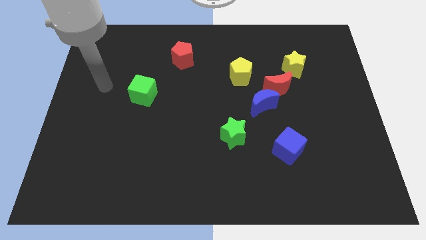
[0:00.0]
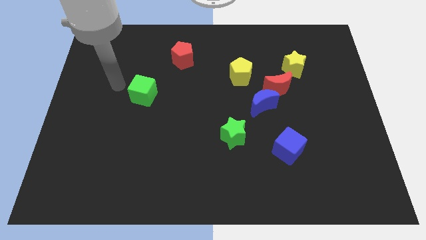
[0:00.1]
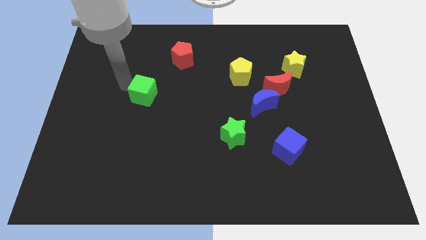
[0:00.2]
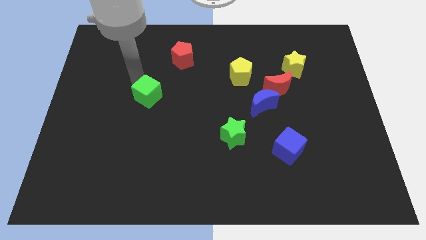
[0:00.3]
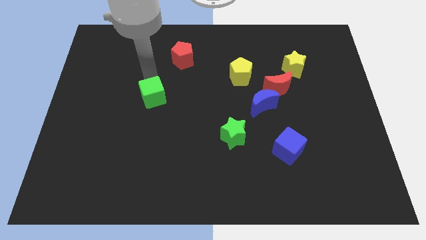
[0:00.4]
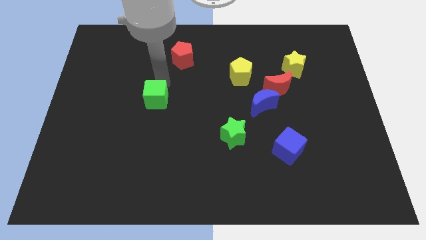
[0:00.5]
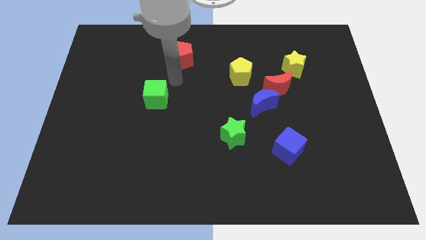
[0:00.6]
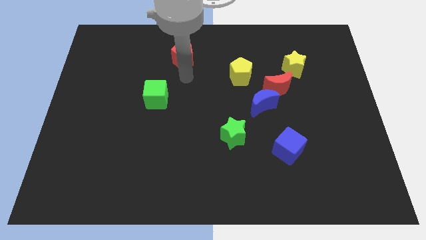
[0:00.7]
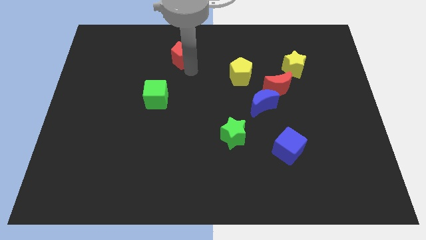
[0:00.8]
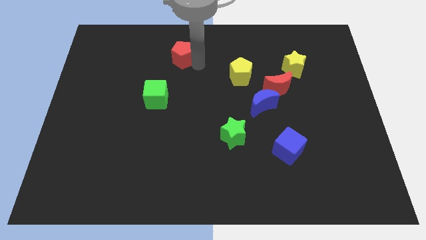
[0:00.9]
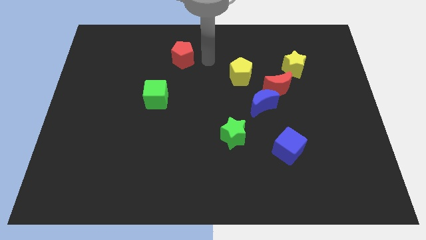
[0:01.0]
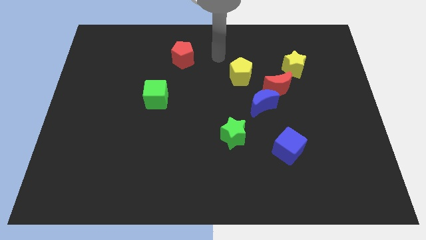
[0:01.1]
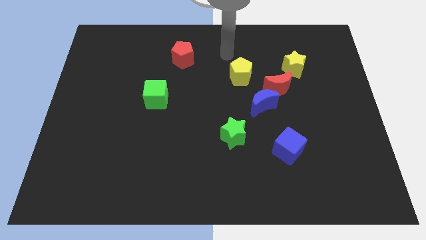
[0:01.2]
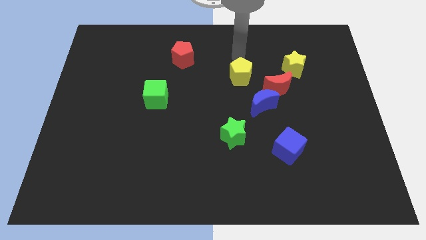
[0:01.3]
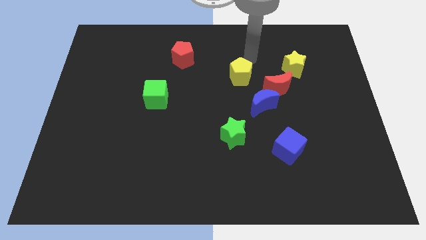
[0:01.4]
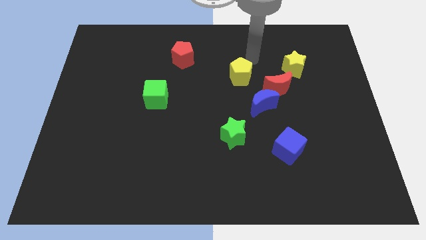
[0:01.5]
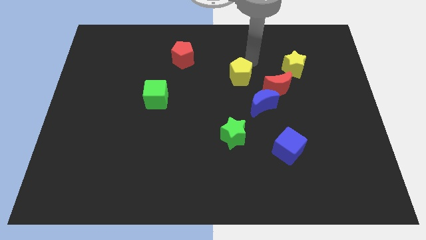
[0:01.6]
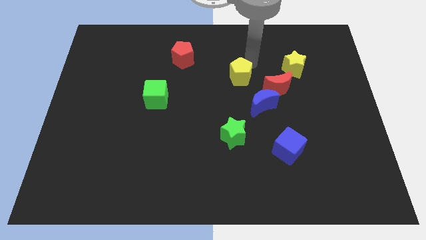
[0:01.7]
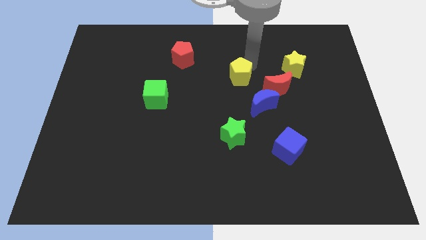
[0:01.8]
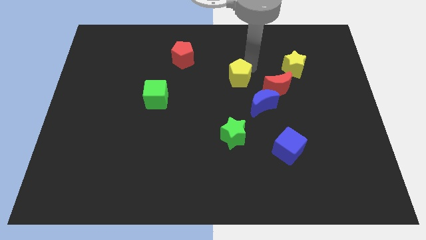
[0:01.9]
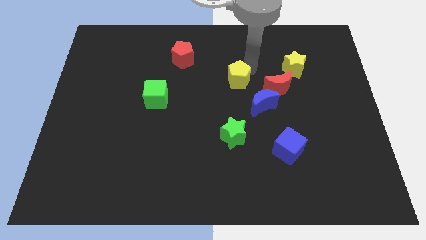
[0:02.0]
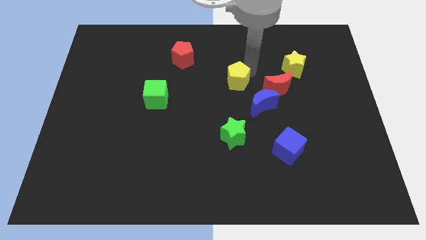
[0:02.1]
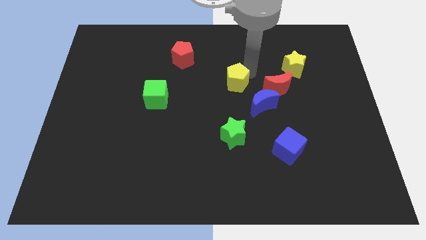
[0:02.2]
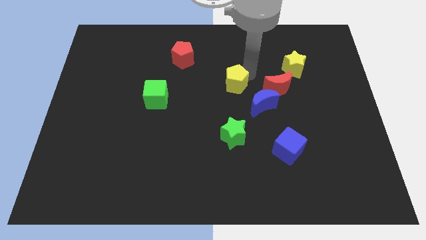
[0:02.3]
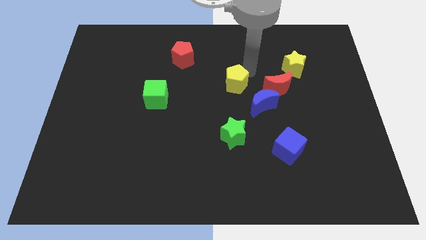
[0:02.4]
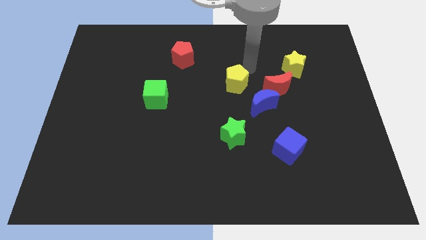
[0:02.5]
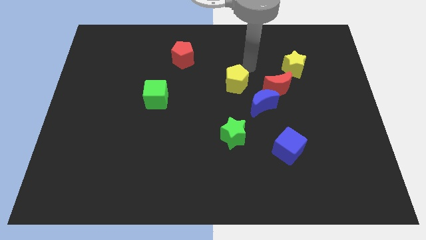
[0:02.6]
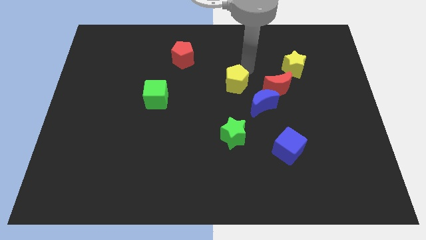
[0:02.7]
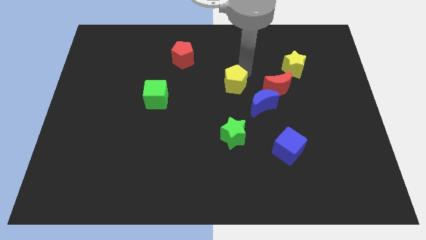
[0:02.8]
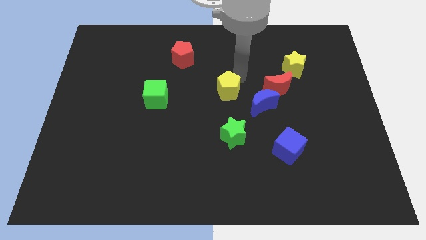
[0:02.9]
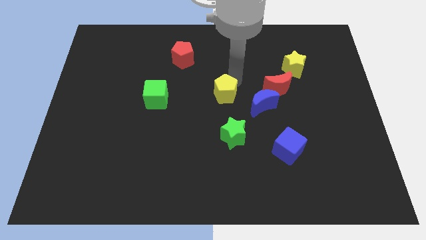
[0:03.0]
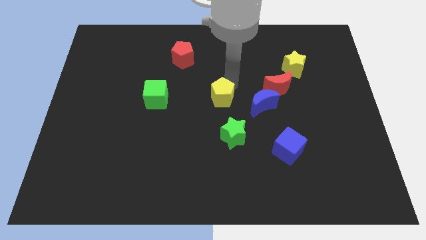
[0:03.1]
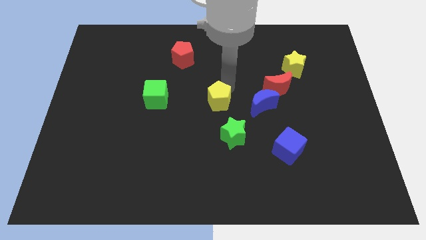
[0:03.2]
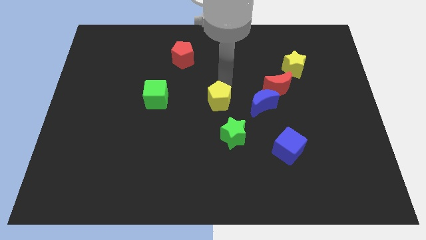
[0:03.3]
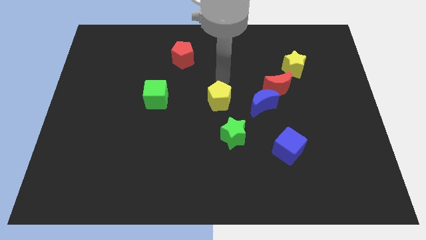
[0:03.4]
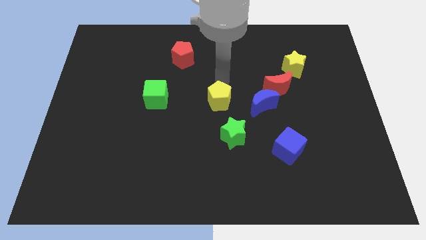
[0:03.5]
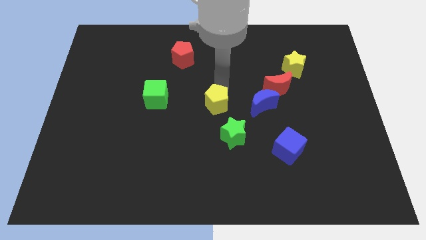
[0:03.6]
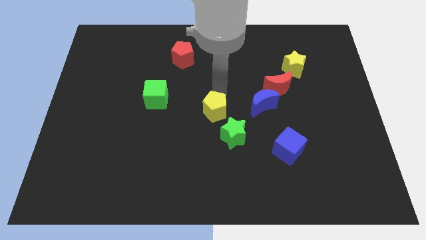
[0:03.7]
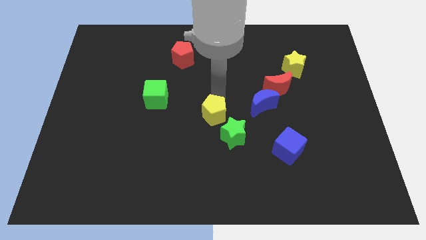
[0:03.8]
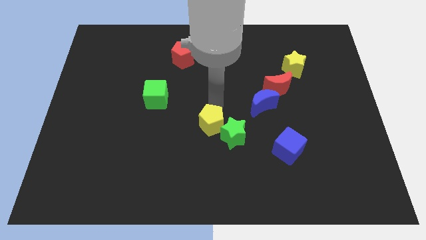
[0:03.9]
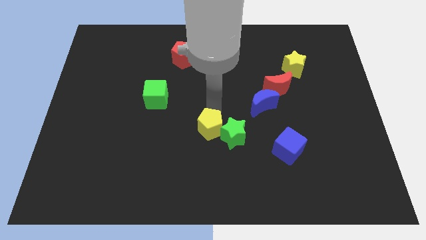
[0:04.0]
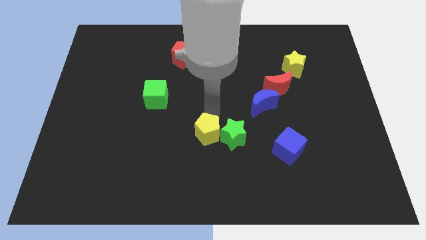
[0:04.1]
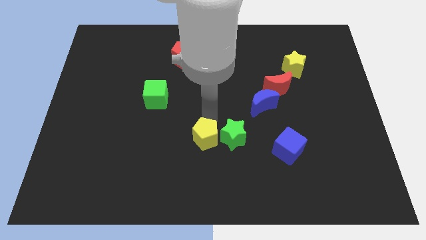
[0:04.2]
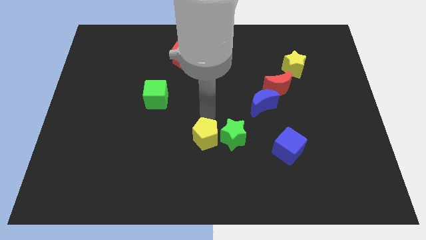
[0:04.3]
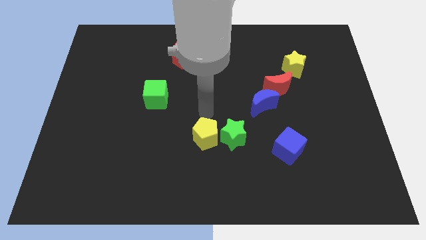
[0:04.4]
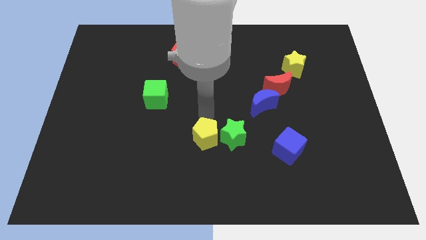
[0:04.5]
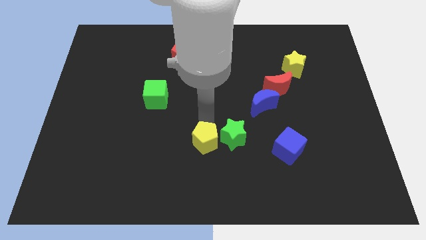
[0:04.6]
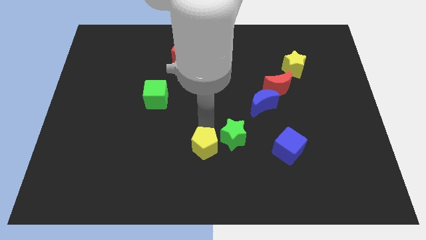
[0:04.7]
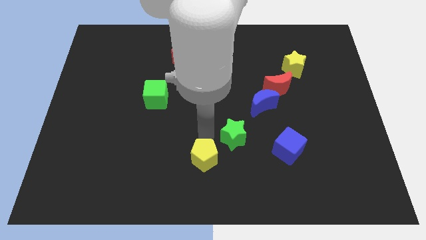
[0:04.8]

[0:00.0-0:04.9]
push the yellow pentagon to the bottom

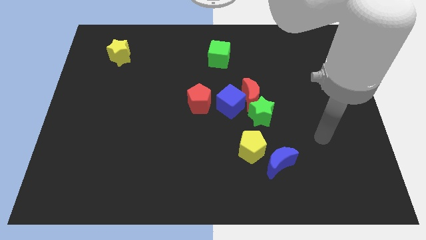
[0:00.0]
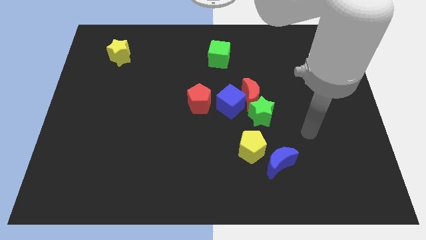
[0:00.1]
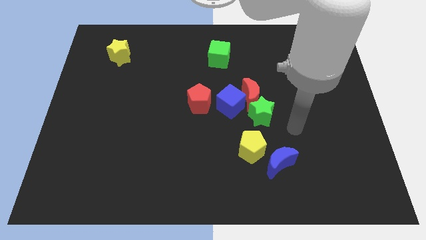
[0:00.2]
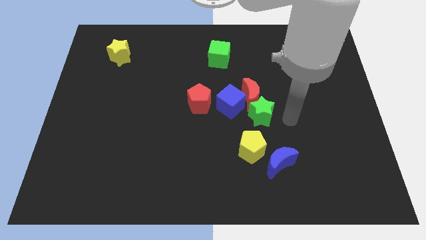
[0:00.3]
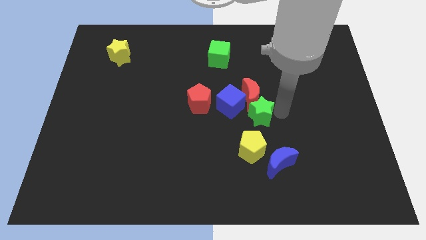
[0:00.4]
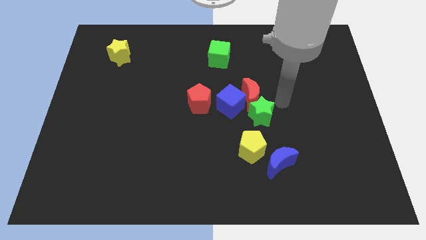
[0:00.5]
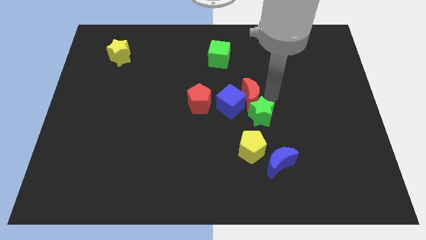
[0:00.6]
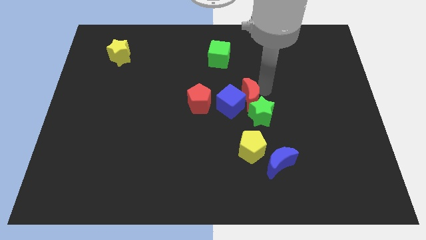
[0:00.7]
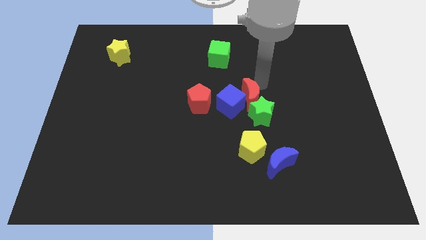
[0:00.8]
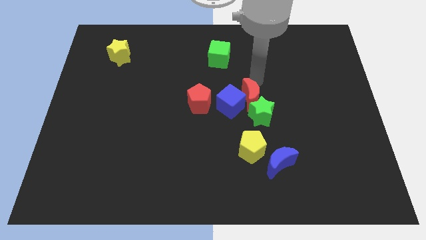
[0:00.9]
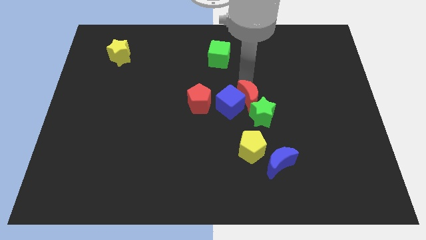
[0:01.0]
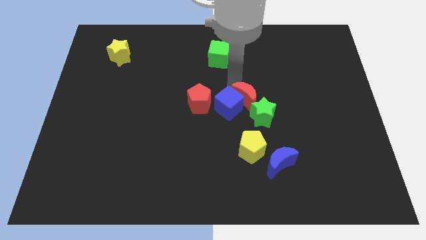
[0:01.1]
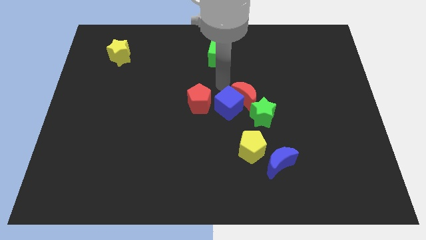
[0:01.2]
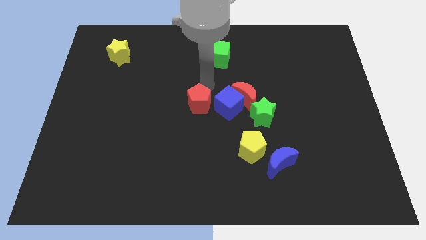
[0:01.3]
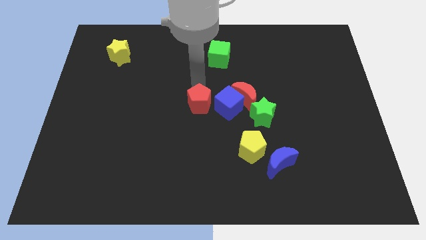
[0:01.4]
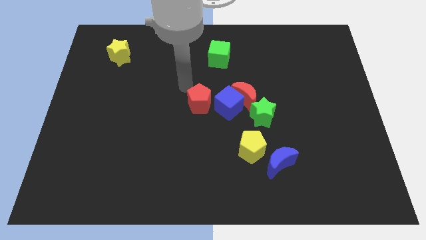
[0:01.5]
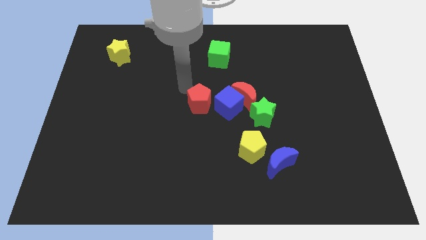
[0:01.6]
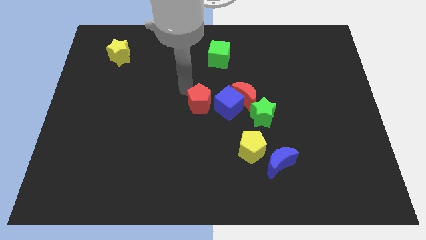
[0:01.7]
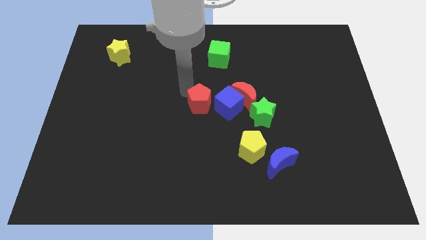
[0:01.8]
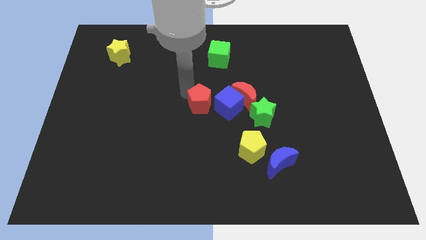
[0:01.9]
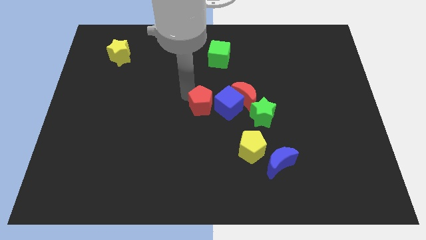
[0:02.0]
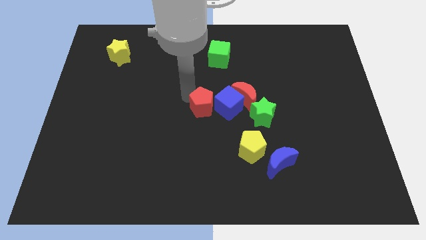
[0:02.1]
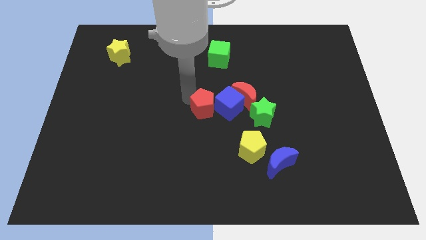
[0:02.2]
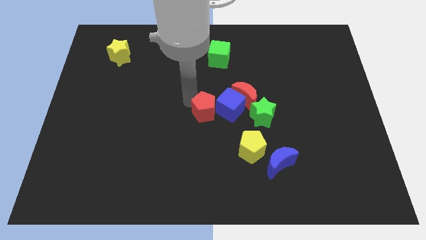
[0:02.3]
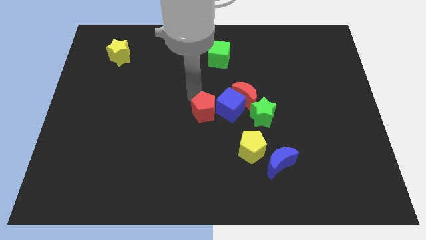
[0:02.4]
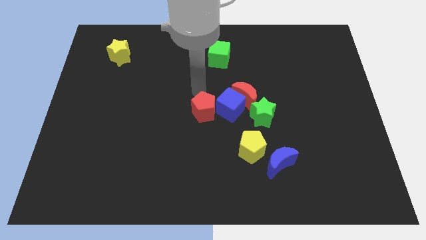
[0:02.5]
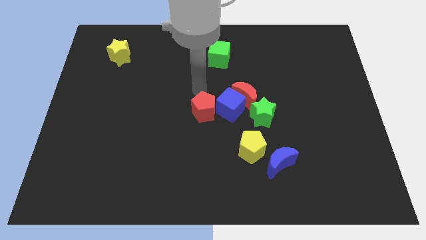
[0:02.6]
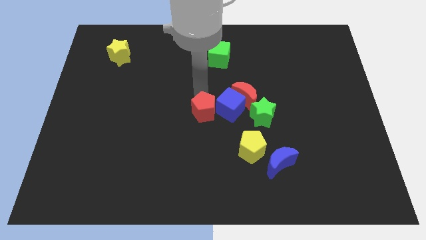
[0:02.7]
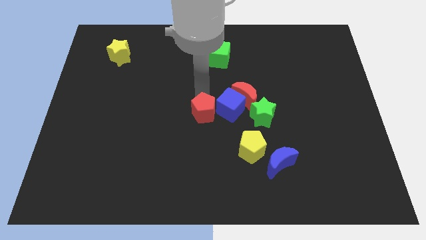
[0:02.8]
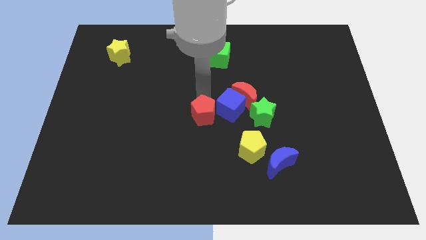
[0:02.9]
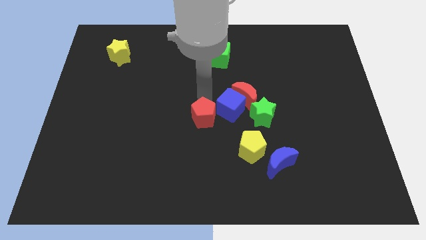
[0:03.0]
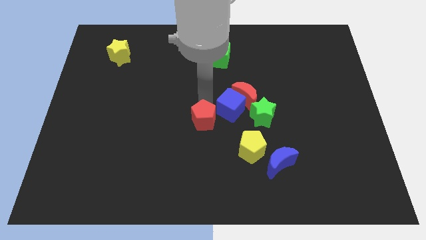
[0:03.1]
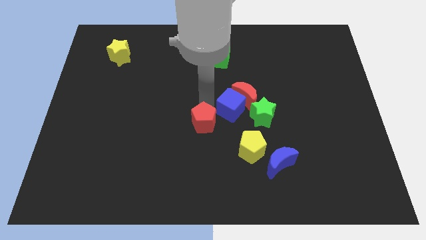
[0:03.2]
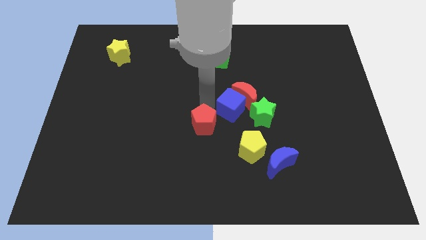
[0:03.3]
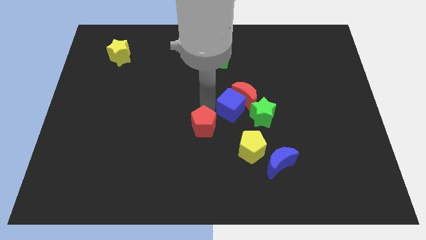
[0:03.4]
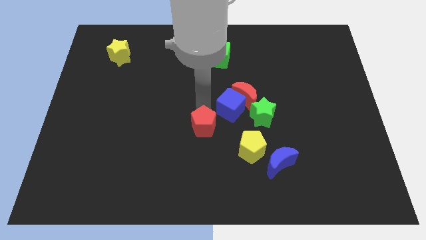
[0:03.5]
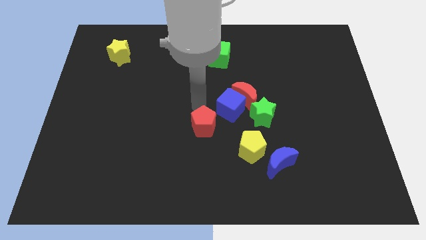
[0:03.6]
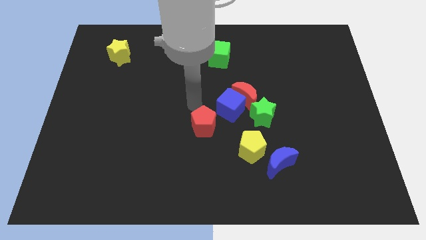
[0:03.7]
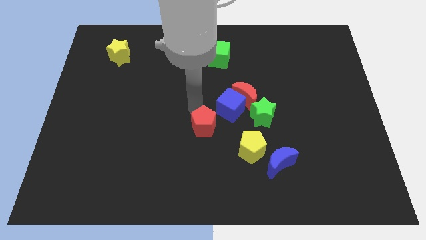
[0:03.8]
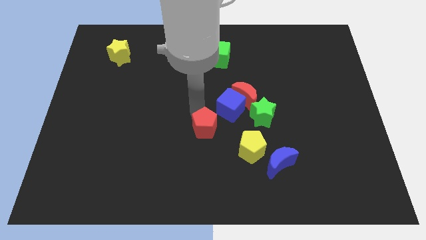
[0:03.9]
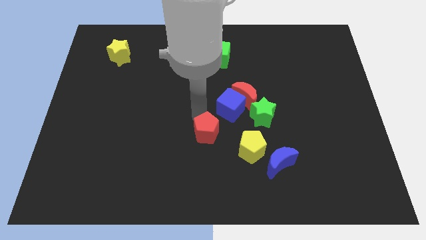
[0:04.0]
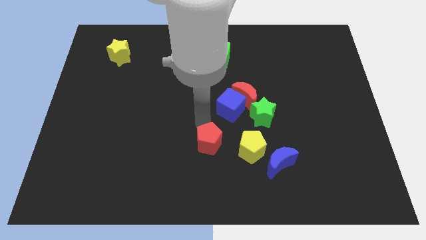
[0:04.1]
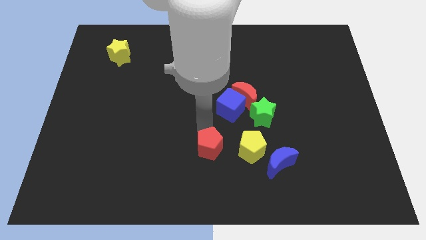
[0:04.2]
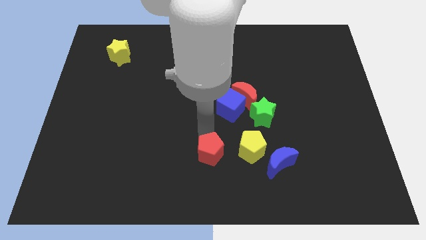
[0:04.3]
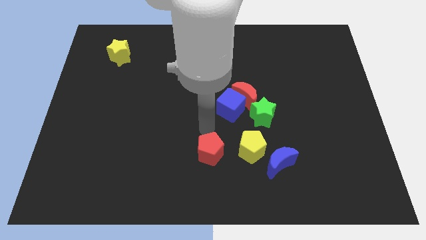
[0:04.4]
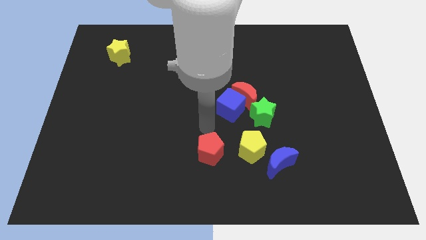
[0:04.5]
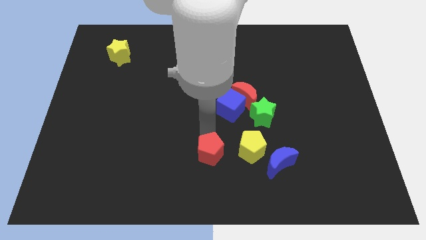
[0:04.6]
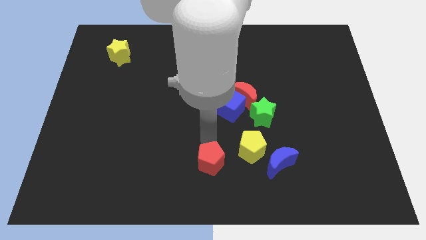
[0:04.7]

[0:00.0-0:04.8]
slide the red pentagon to the bottom
